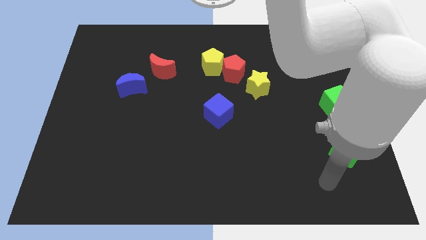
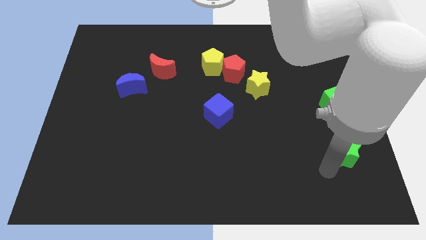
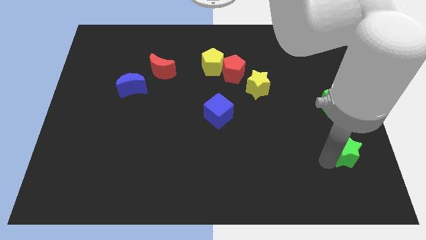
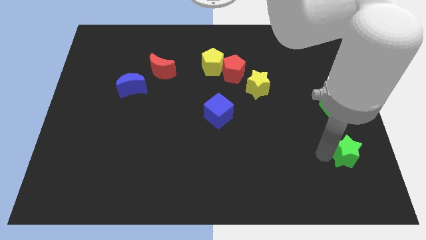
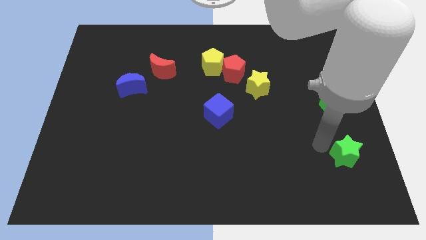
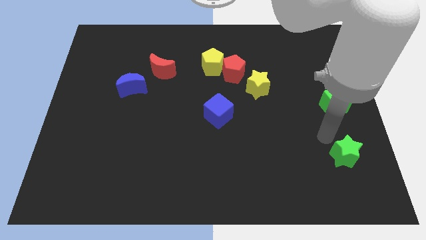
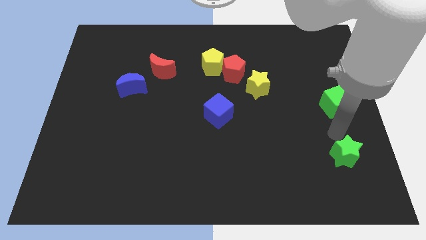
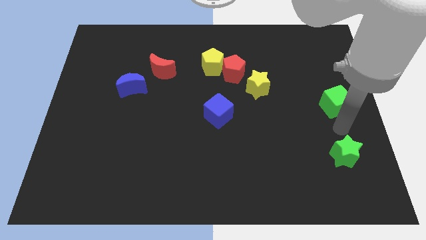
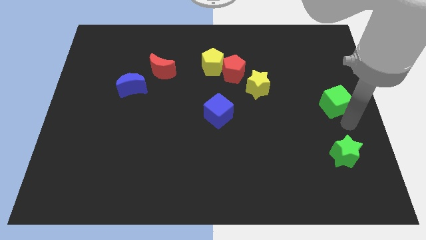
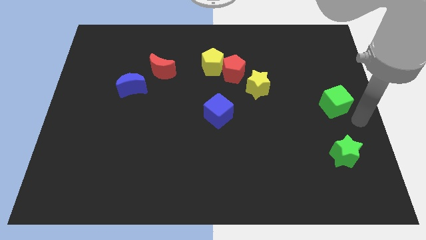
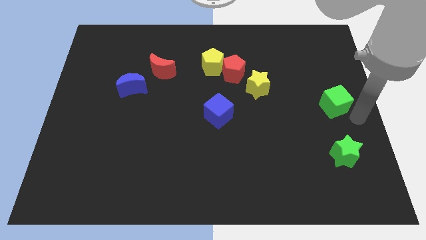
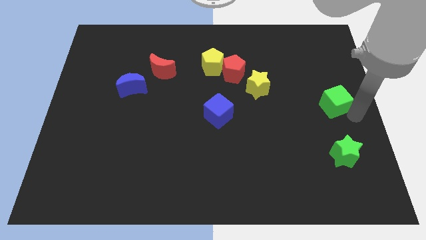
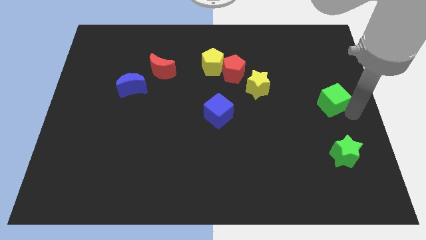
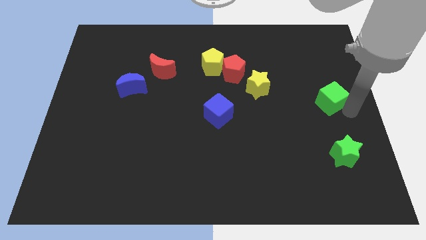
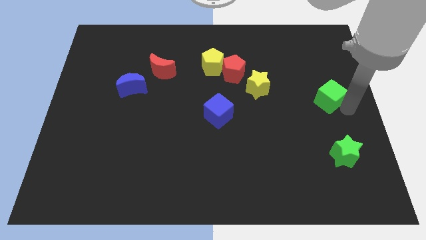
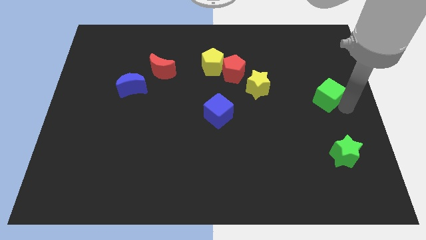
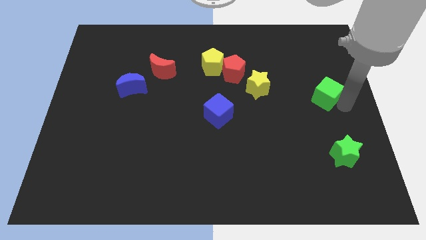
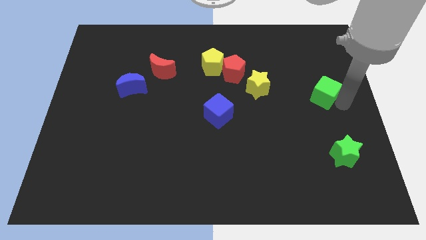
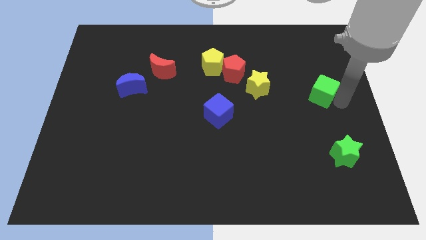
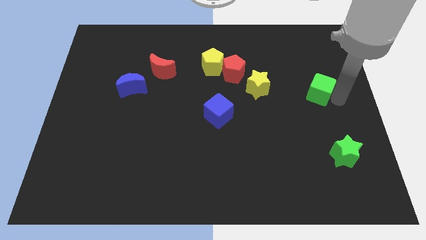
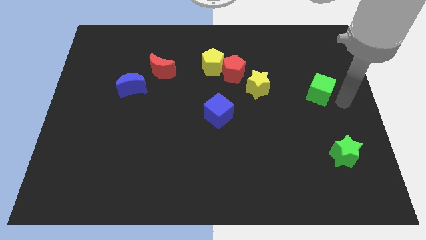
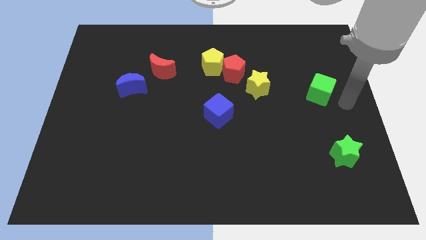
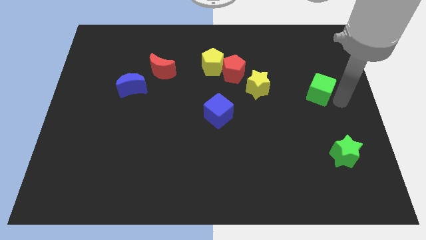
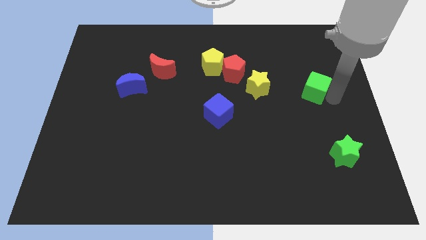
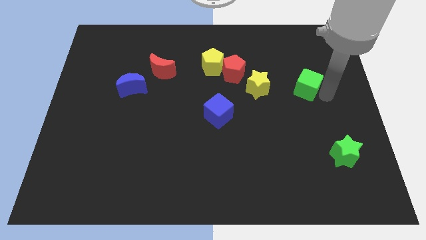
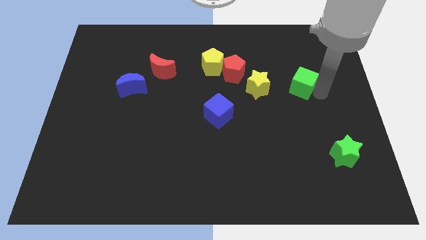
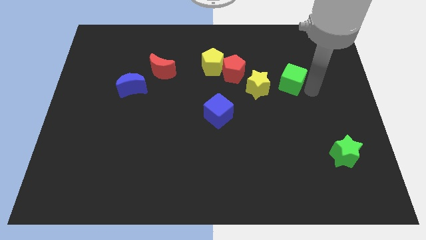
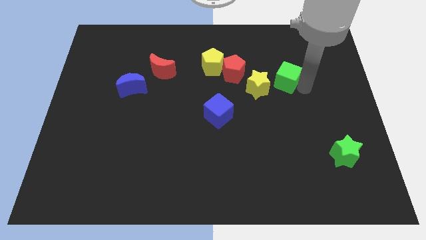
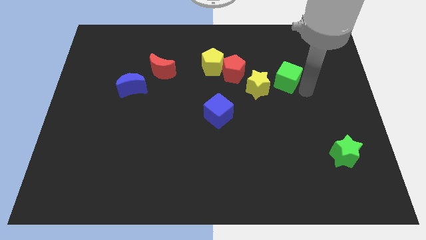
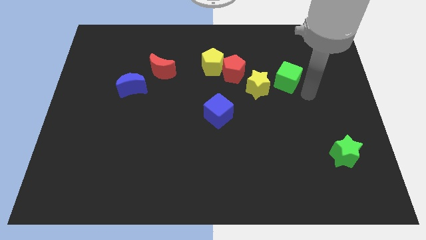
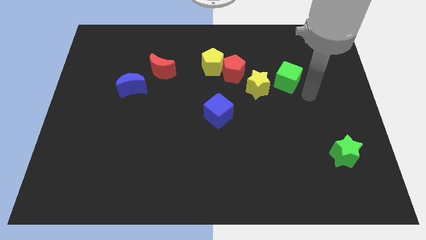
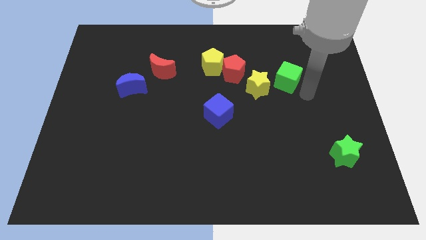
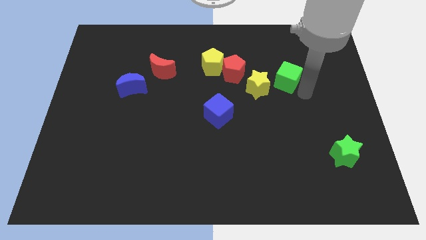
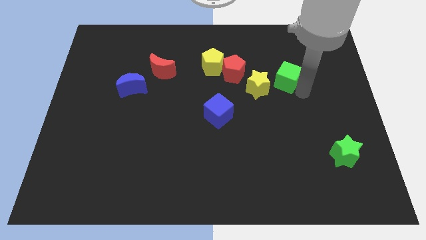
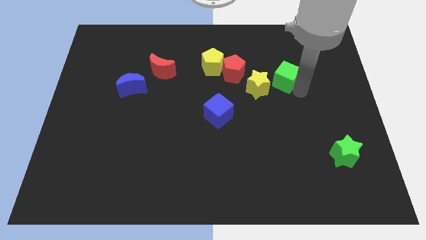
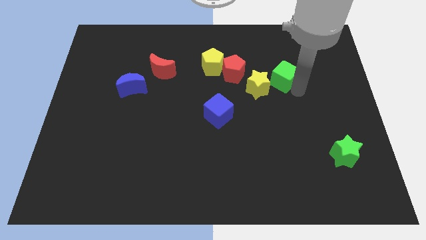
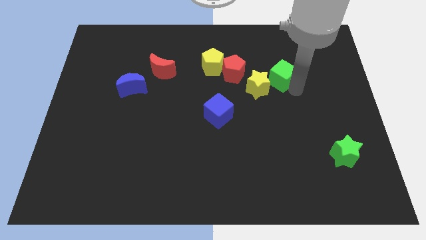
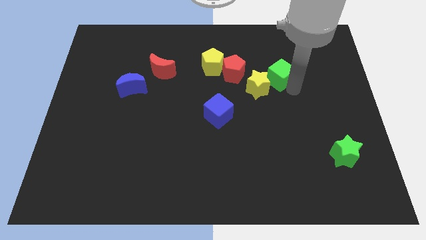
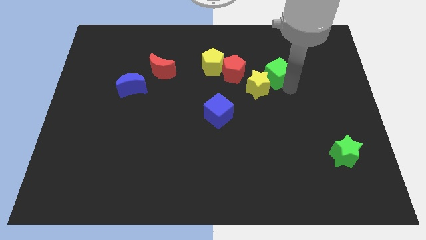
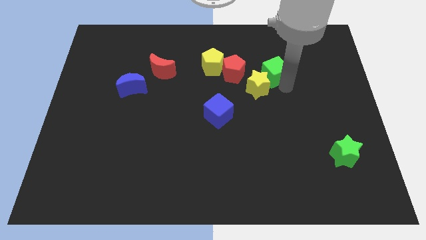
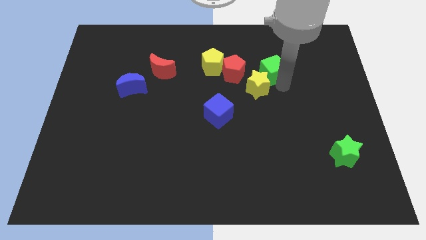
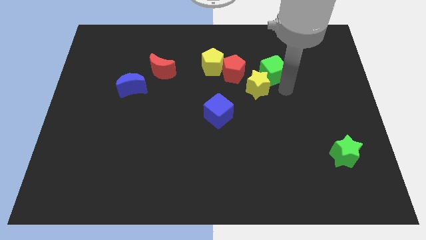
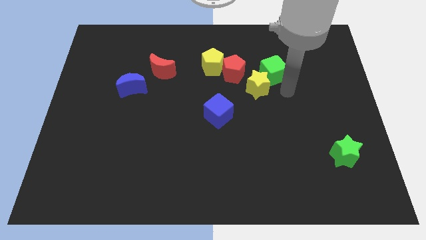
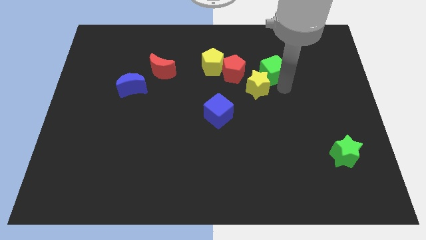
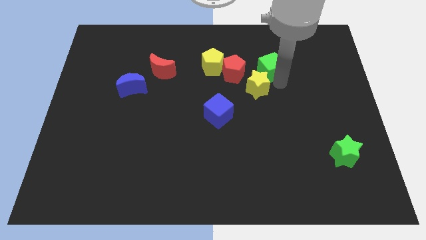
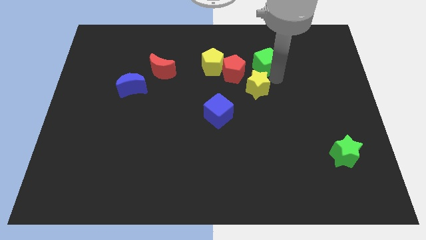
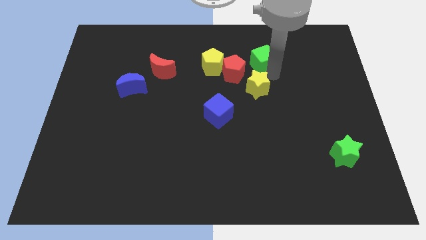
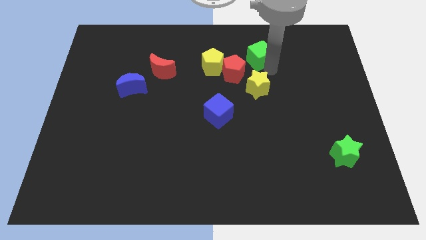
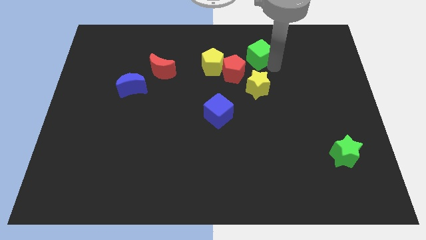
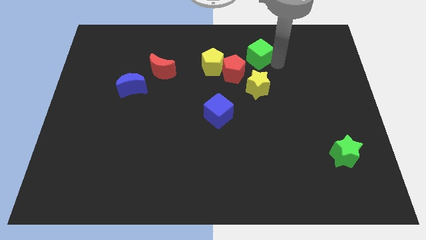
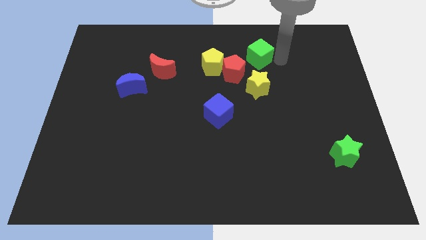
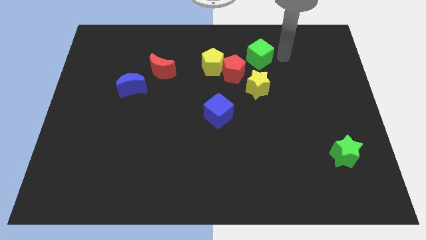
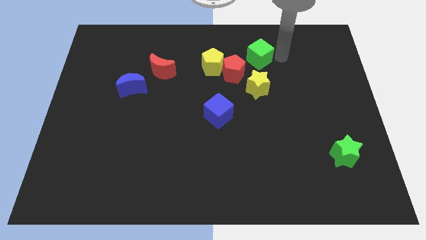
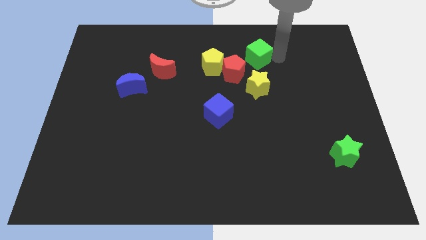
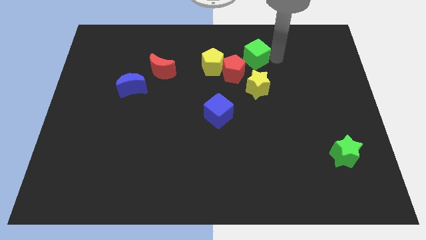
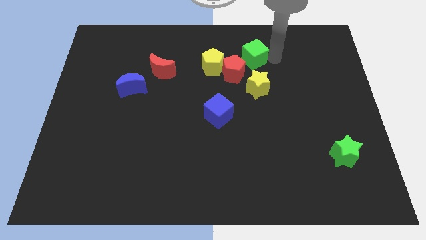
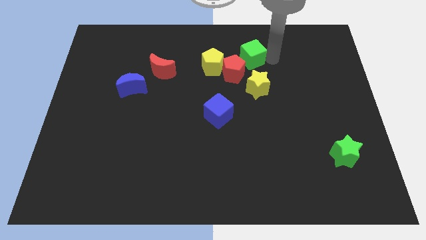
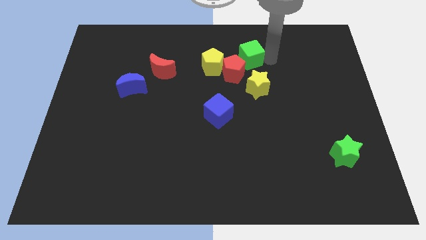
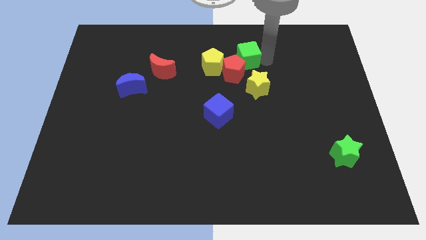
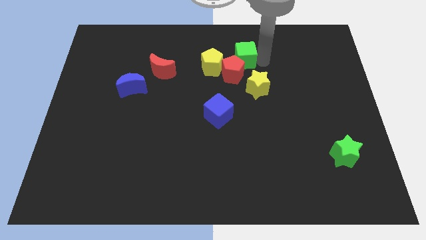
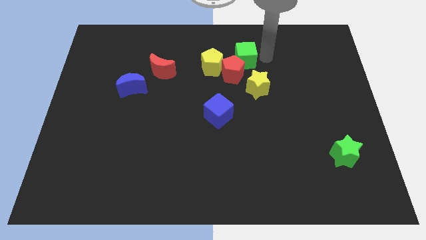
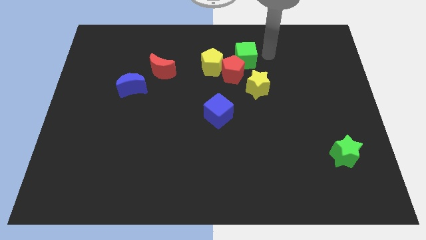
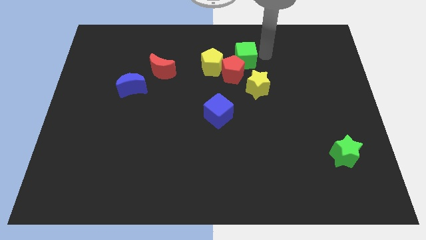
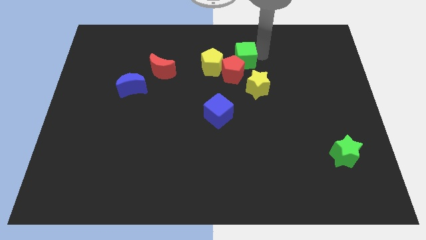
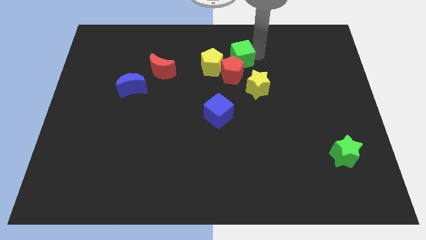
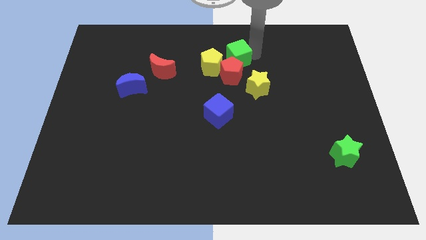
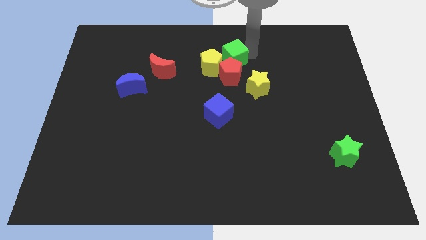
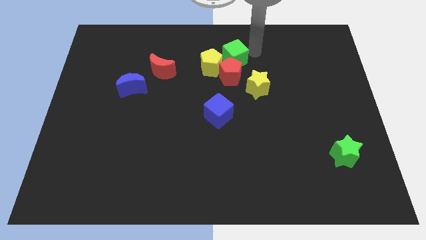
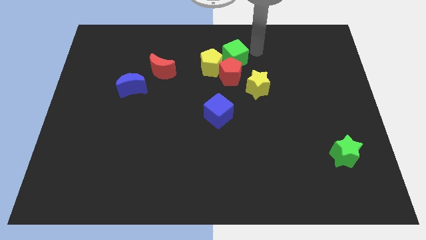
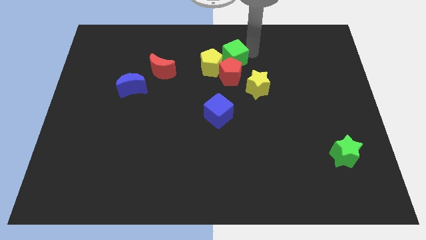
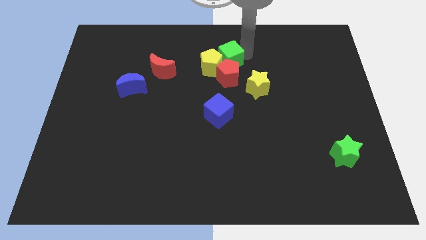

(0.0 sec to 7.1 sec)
move the green cube close to the yellow pentagon

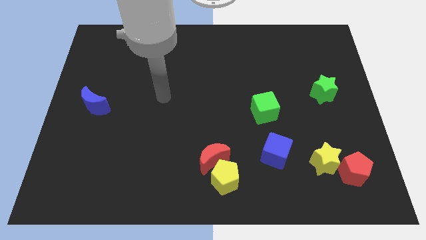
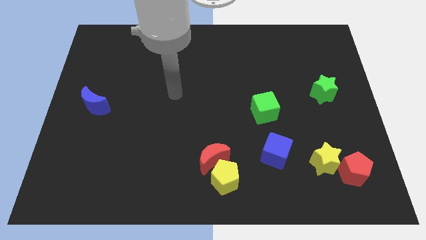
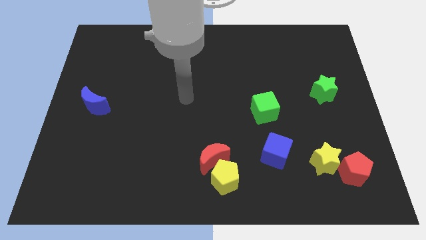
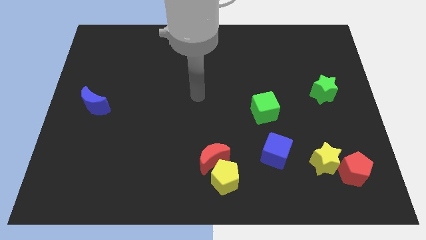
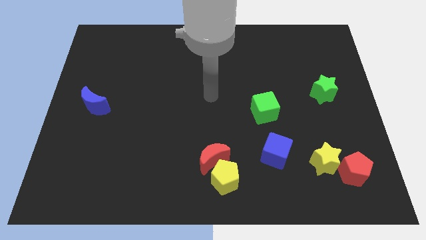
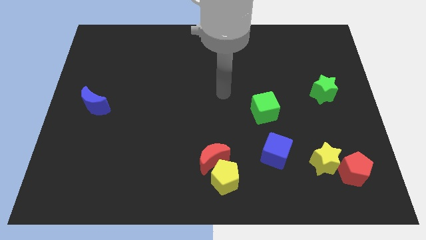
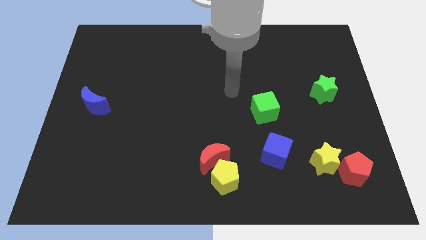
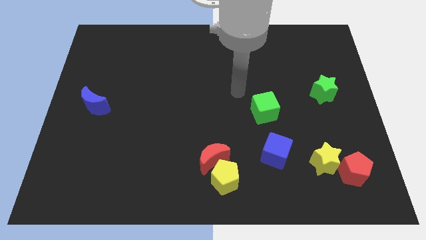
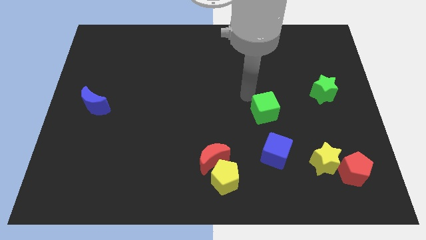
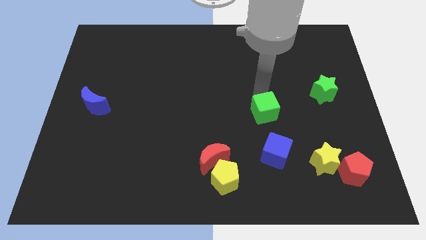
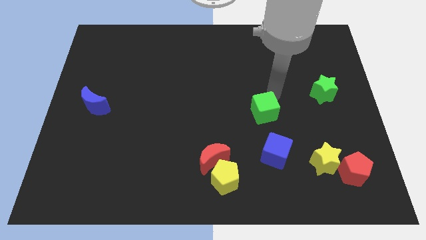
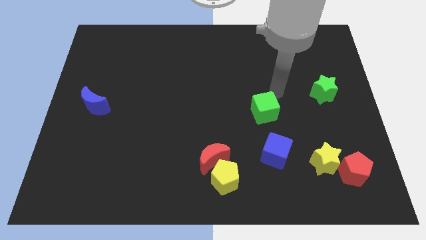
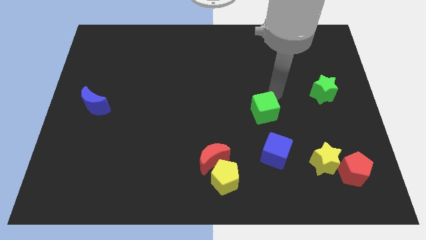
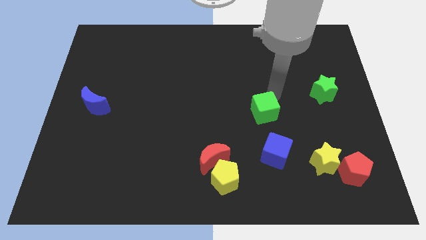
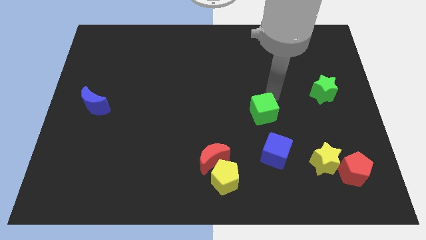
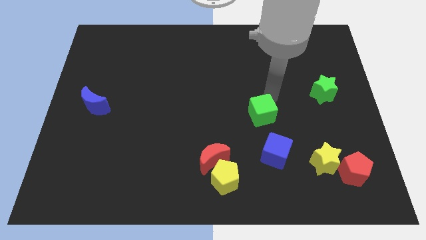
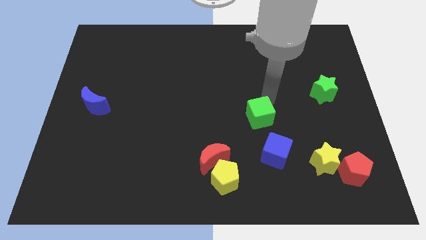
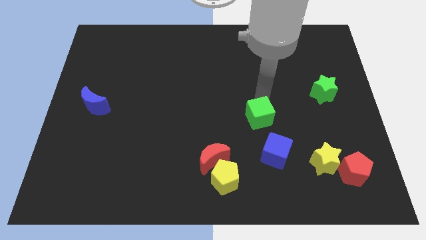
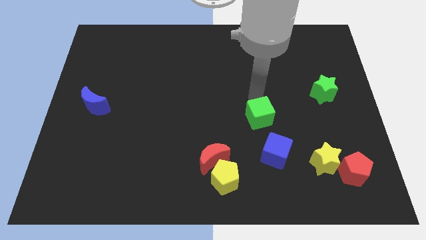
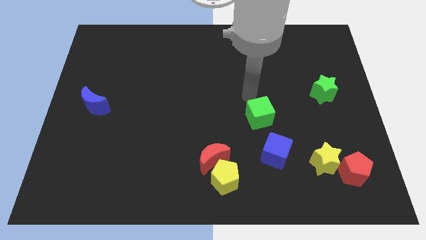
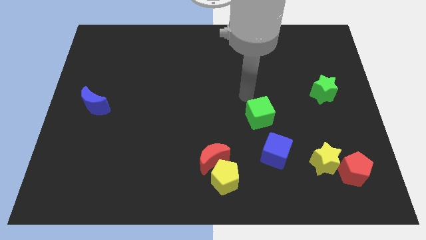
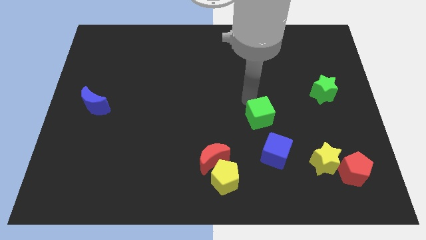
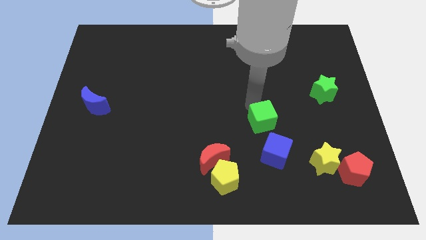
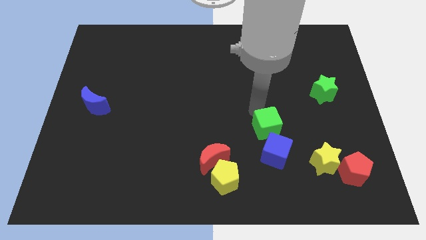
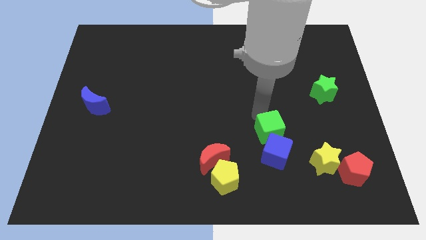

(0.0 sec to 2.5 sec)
push the green cube towards the blue cube
